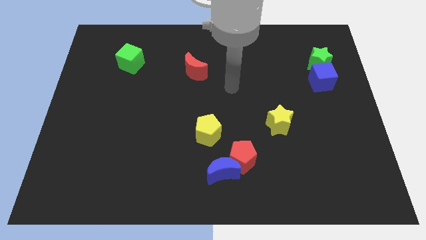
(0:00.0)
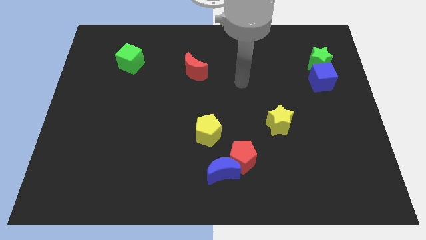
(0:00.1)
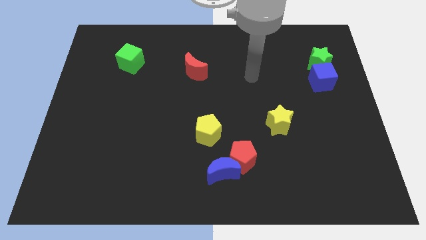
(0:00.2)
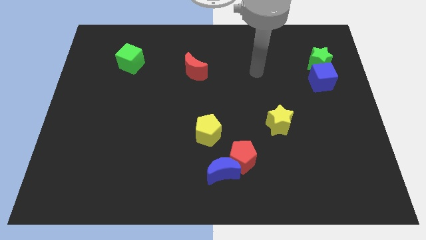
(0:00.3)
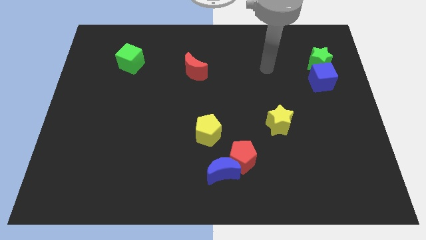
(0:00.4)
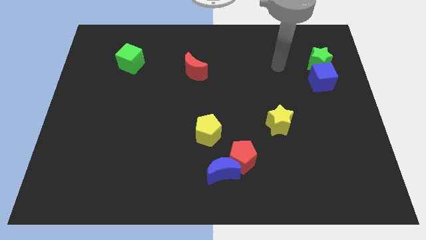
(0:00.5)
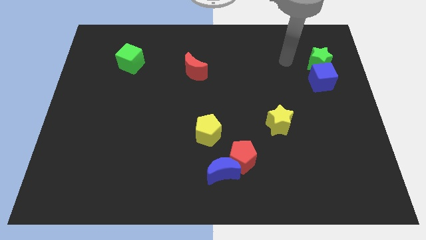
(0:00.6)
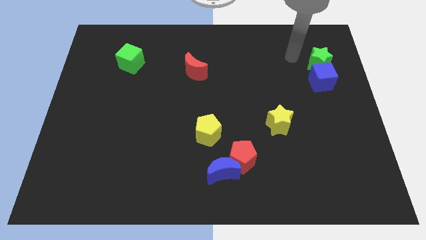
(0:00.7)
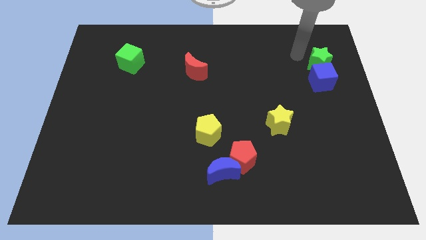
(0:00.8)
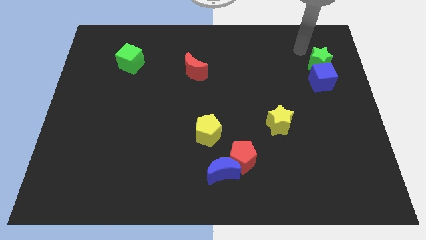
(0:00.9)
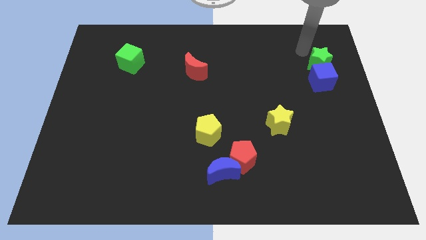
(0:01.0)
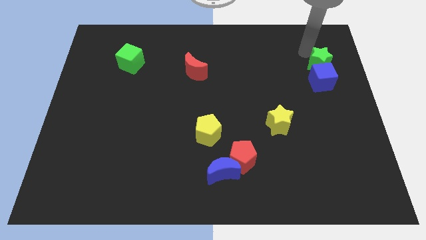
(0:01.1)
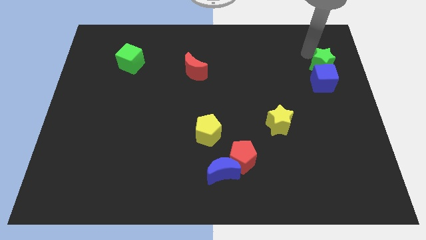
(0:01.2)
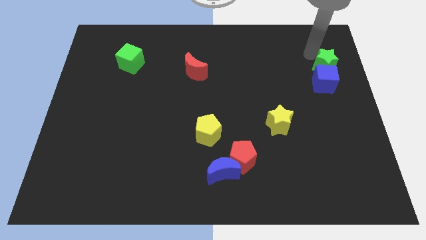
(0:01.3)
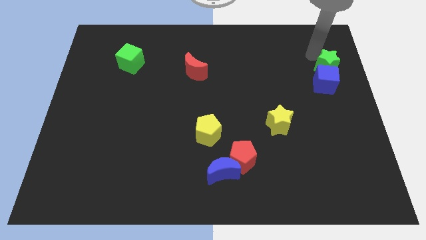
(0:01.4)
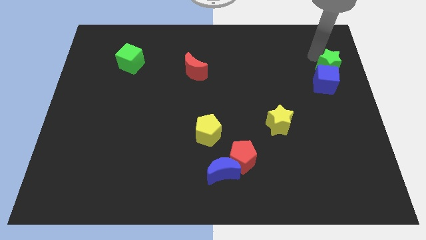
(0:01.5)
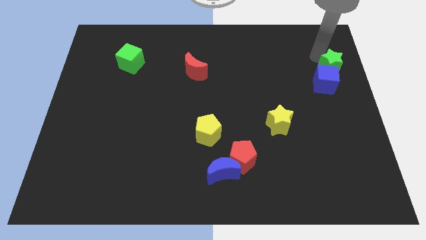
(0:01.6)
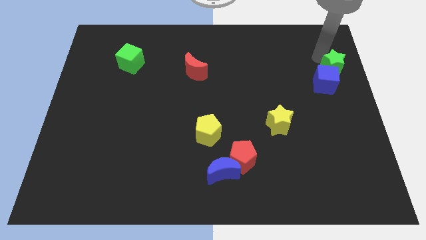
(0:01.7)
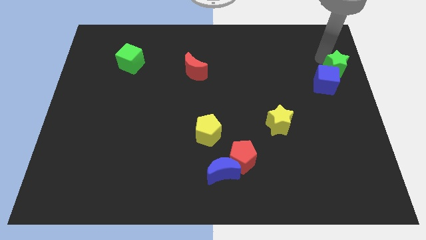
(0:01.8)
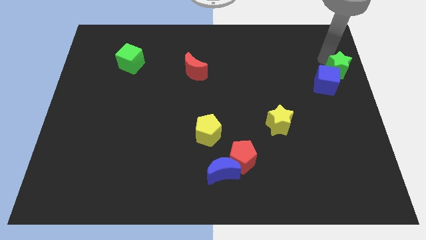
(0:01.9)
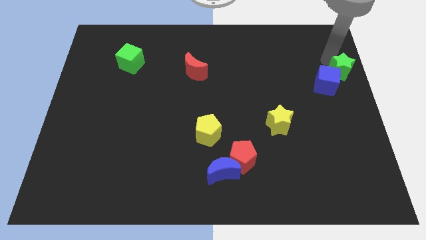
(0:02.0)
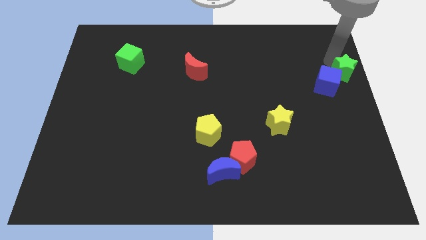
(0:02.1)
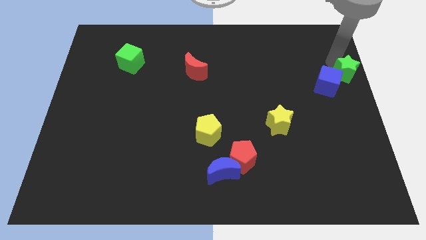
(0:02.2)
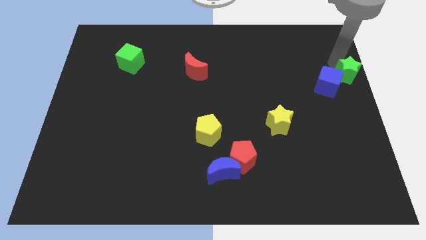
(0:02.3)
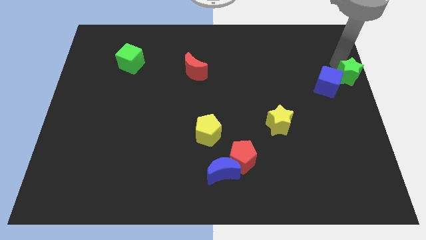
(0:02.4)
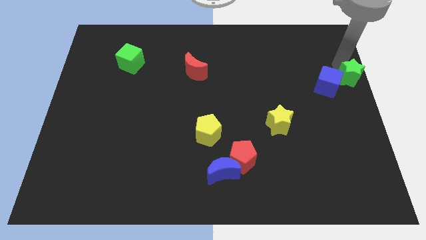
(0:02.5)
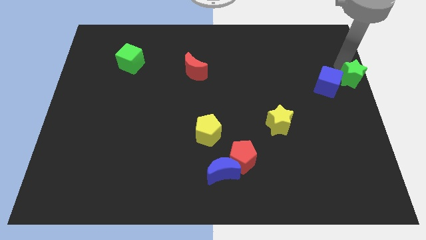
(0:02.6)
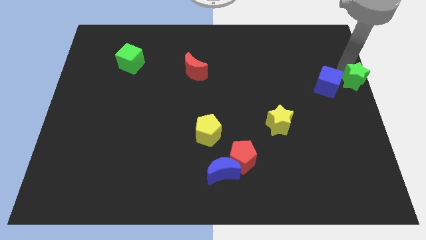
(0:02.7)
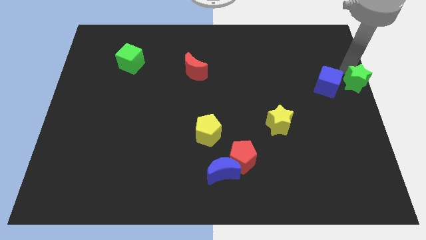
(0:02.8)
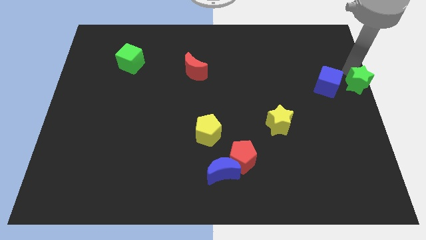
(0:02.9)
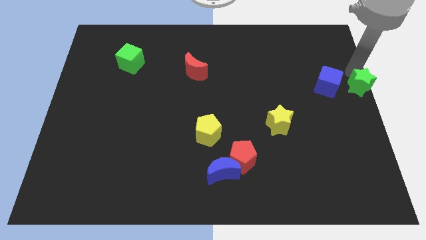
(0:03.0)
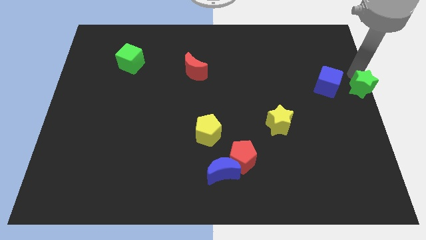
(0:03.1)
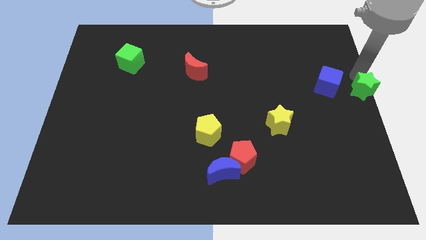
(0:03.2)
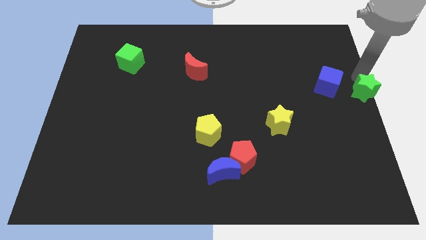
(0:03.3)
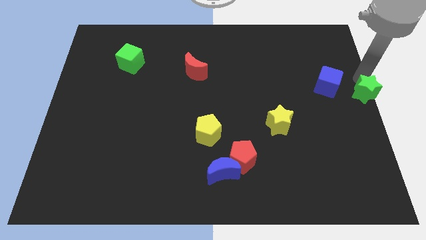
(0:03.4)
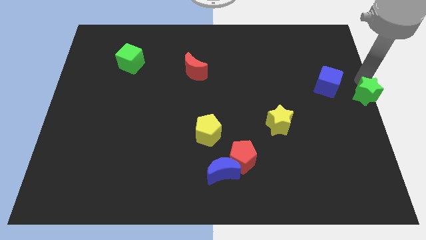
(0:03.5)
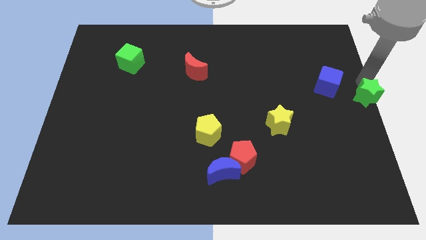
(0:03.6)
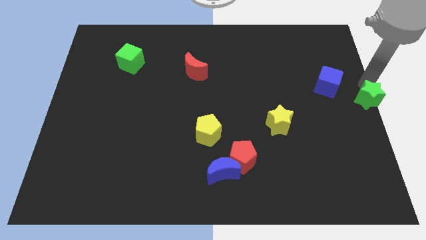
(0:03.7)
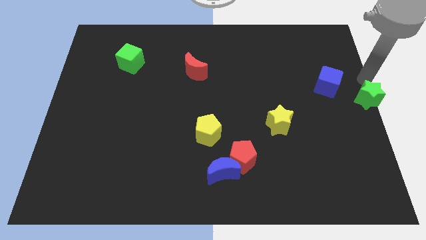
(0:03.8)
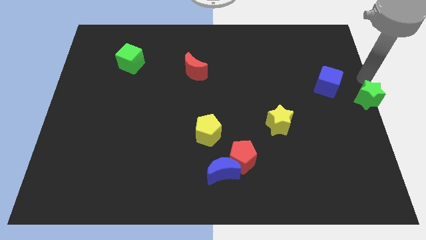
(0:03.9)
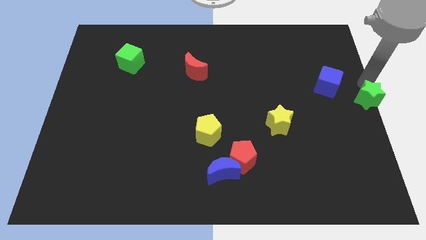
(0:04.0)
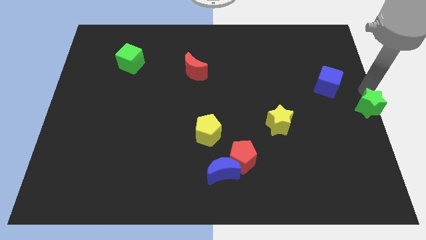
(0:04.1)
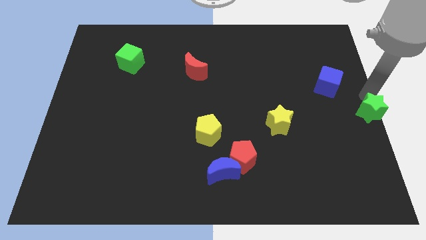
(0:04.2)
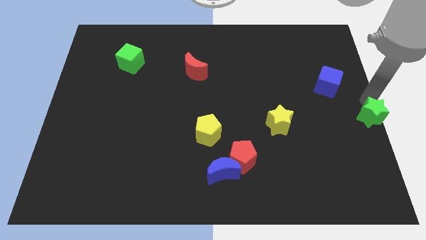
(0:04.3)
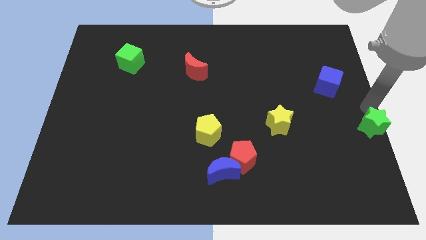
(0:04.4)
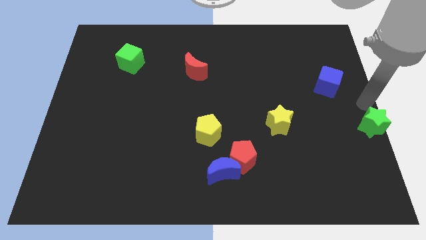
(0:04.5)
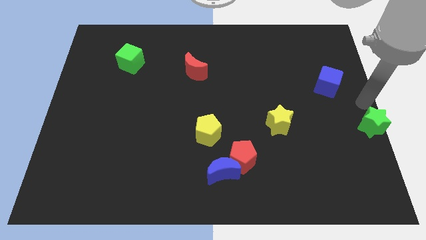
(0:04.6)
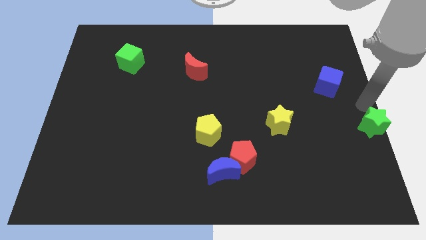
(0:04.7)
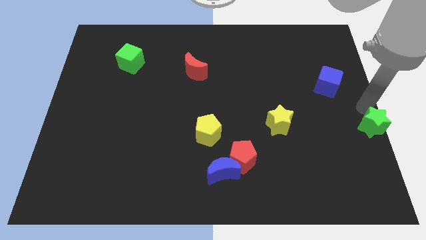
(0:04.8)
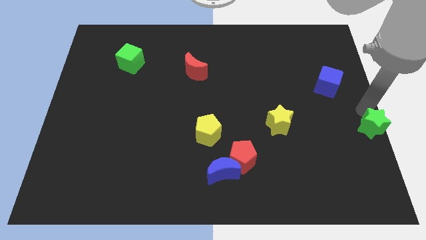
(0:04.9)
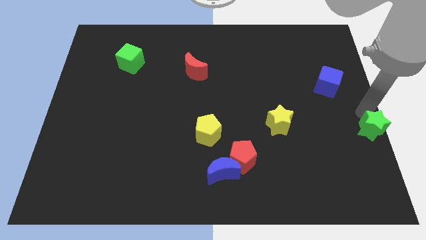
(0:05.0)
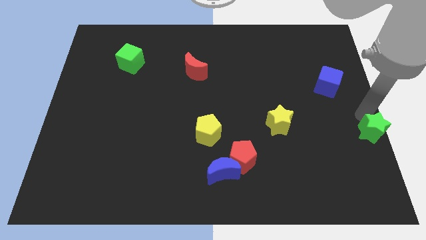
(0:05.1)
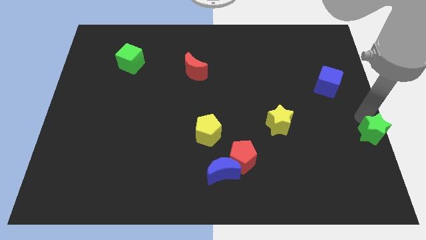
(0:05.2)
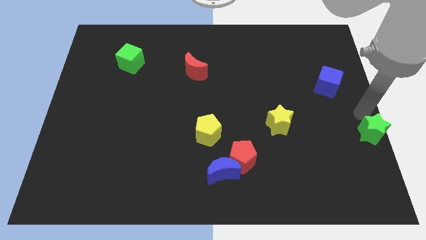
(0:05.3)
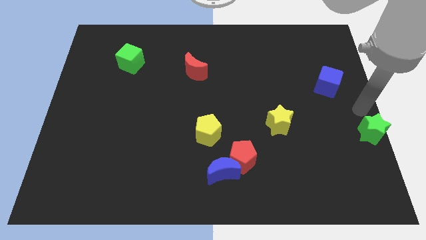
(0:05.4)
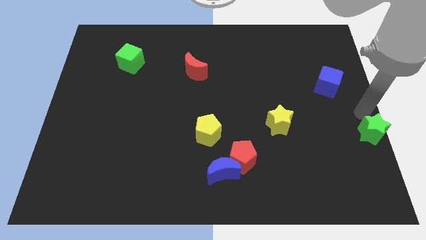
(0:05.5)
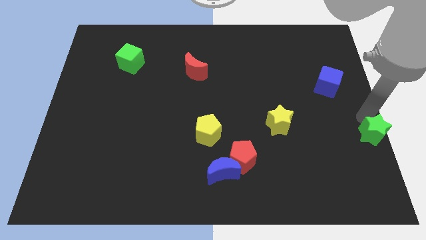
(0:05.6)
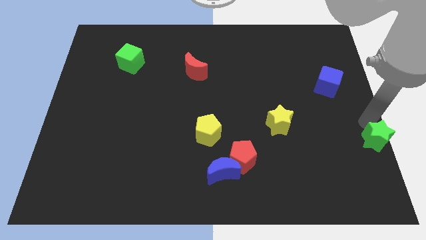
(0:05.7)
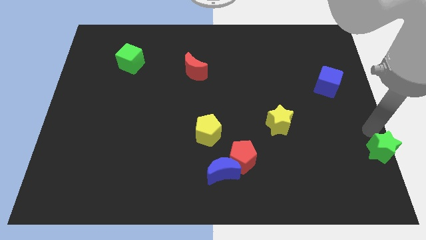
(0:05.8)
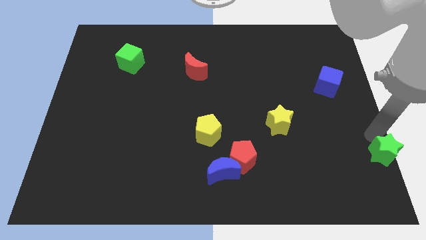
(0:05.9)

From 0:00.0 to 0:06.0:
move the green star to the bottom right

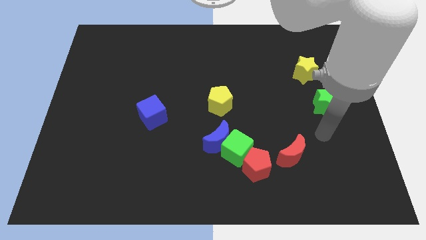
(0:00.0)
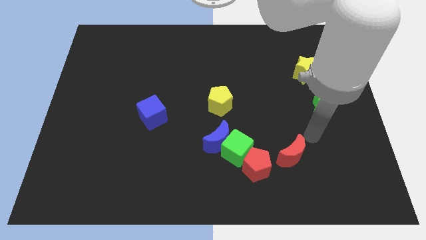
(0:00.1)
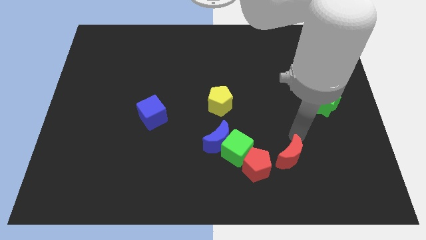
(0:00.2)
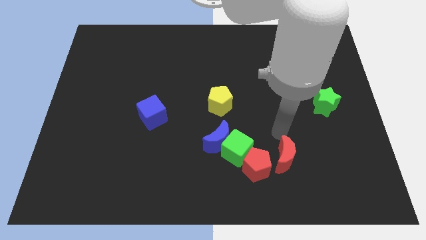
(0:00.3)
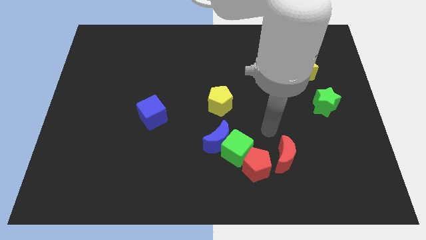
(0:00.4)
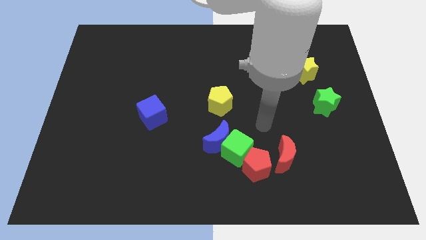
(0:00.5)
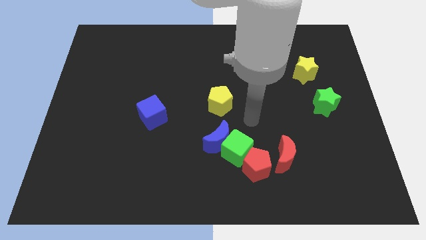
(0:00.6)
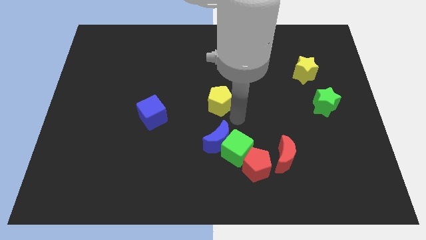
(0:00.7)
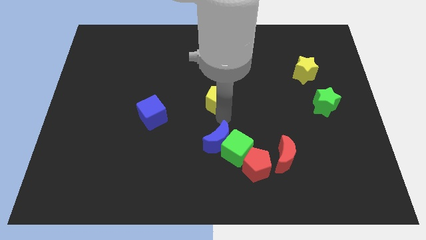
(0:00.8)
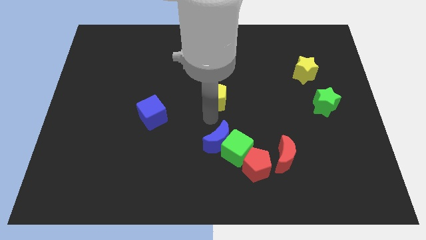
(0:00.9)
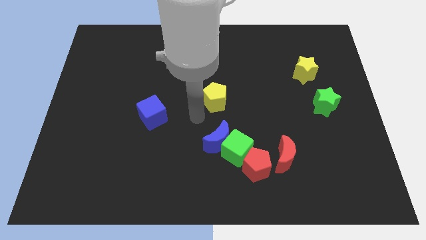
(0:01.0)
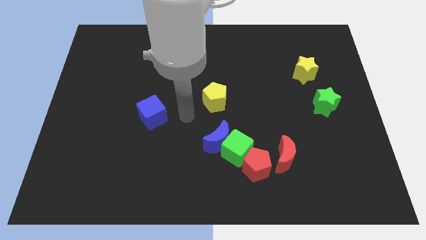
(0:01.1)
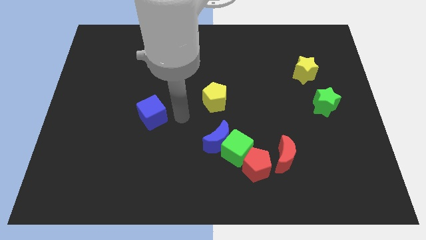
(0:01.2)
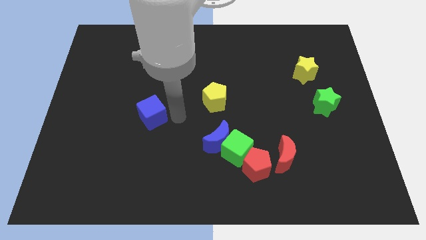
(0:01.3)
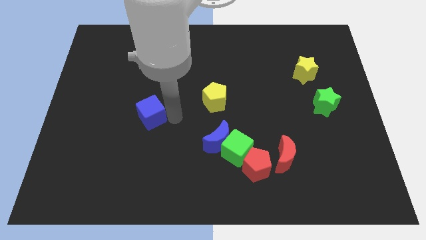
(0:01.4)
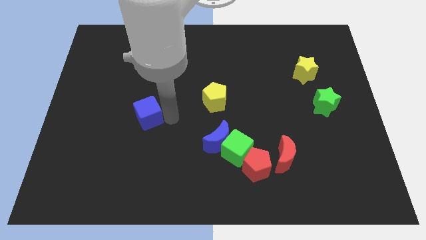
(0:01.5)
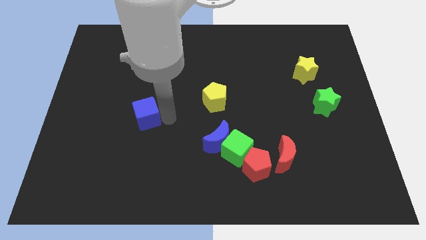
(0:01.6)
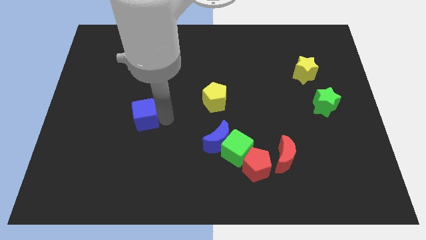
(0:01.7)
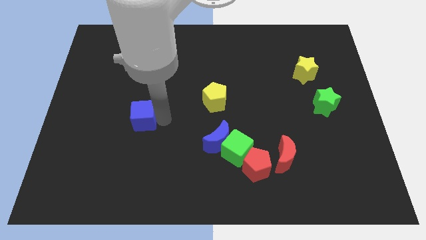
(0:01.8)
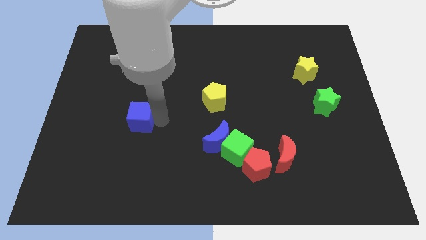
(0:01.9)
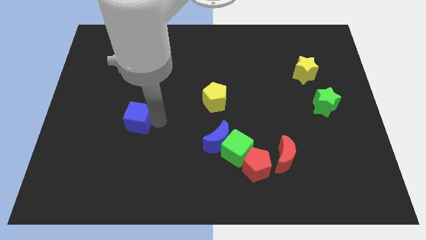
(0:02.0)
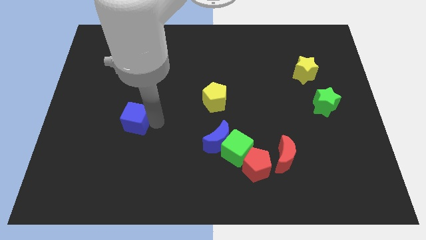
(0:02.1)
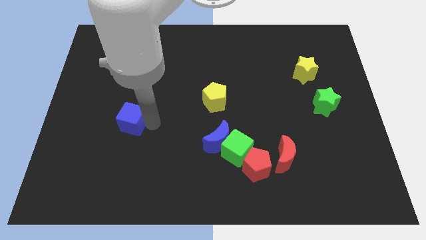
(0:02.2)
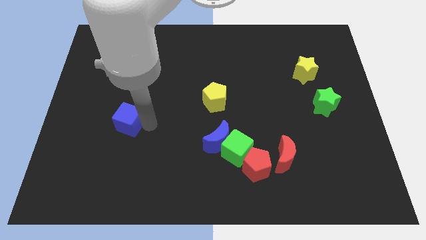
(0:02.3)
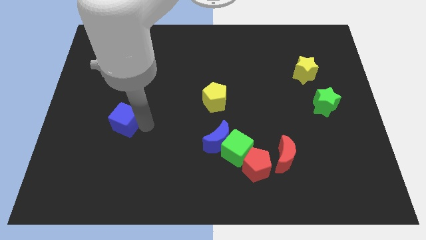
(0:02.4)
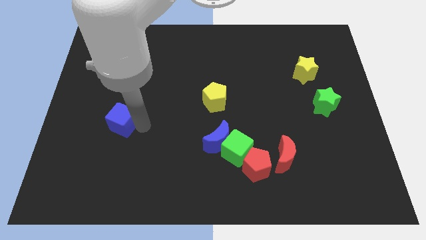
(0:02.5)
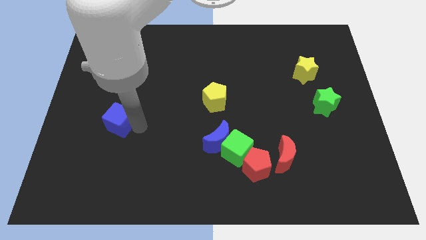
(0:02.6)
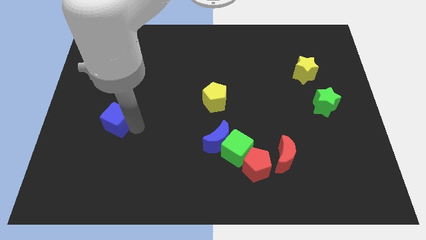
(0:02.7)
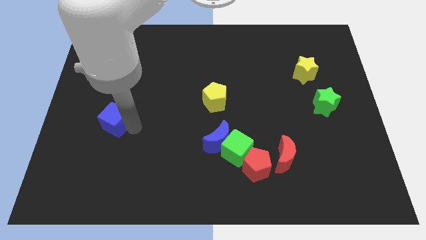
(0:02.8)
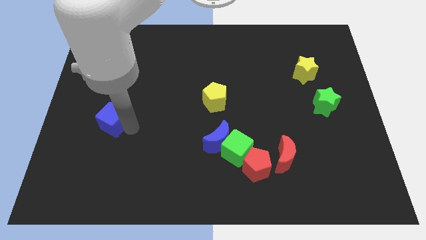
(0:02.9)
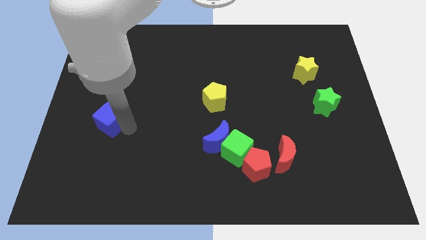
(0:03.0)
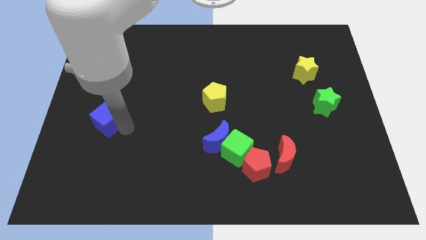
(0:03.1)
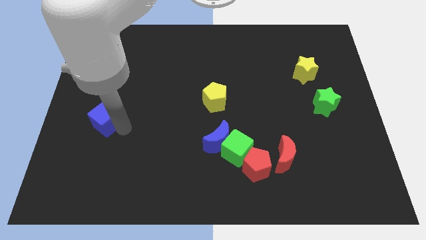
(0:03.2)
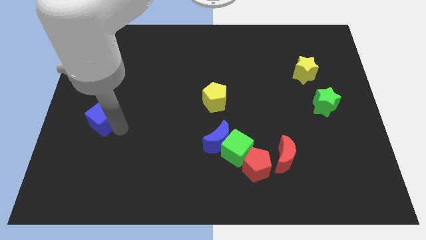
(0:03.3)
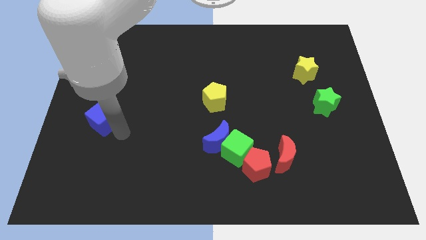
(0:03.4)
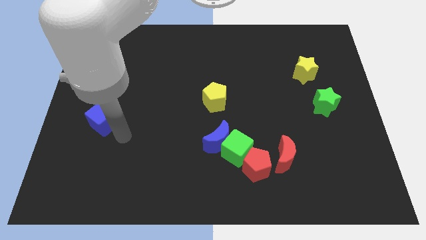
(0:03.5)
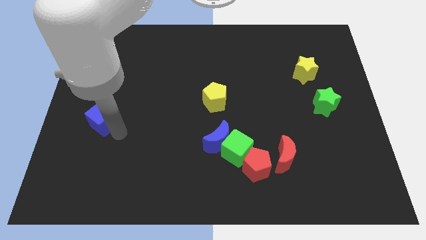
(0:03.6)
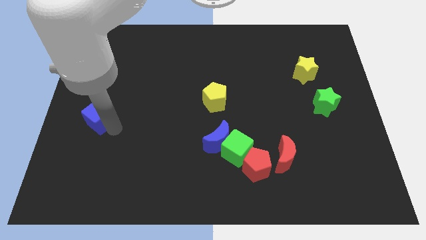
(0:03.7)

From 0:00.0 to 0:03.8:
slide the blue cube to the left side
